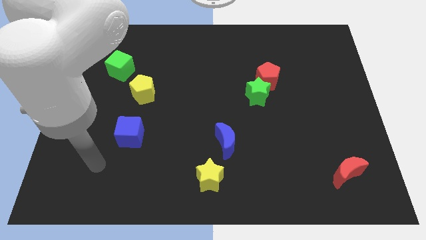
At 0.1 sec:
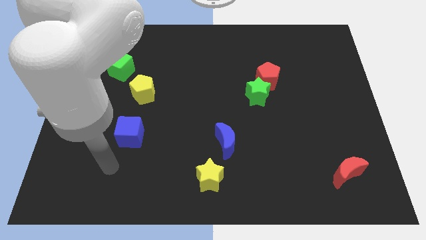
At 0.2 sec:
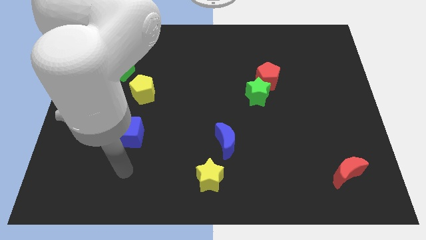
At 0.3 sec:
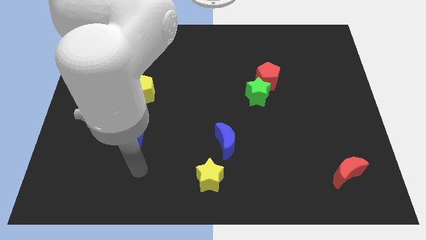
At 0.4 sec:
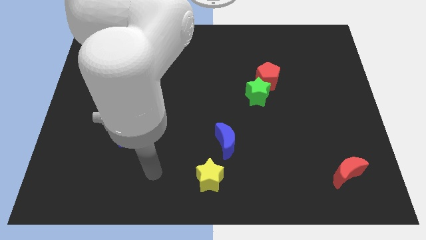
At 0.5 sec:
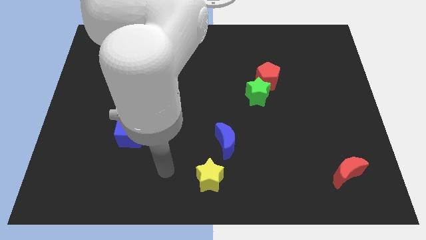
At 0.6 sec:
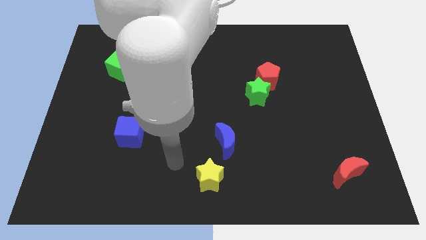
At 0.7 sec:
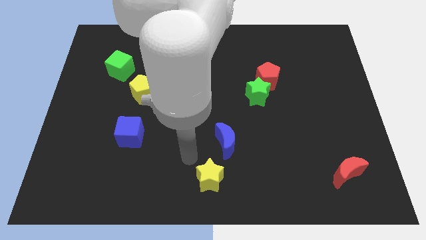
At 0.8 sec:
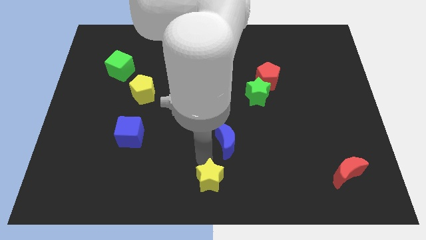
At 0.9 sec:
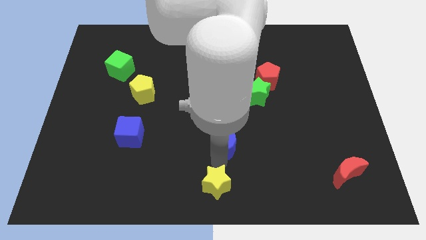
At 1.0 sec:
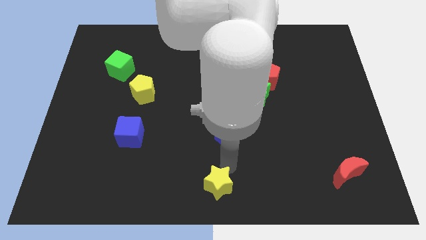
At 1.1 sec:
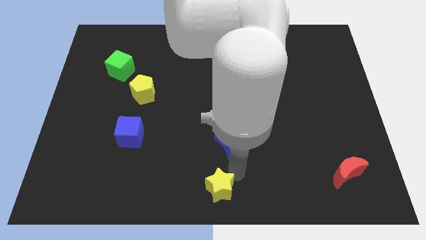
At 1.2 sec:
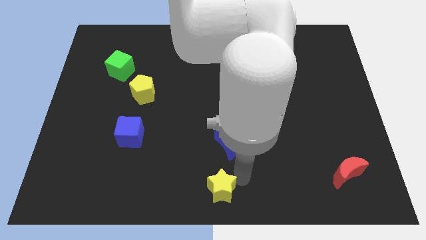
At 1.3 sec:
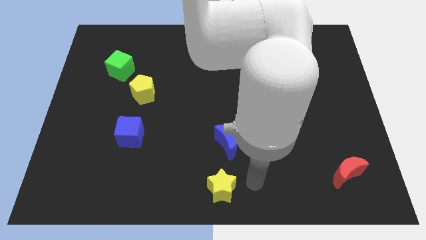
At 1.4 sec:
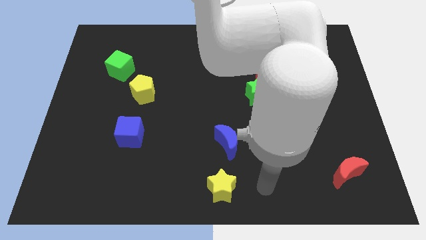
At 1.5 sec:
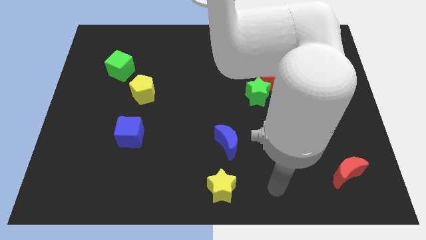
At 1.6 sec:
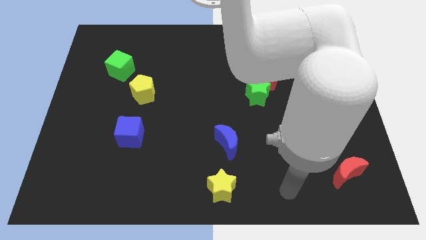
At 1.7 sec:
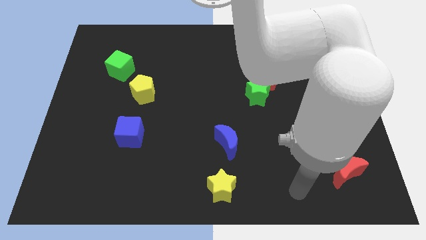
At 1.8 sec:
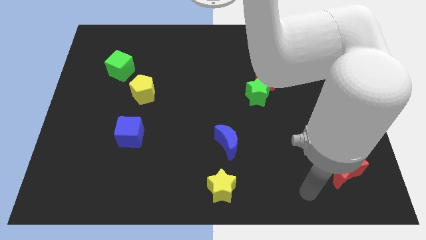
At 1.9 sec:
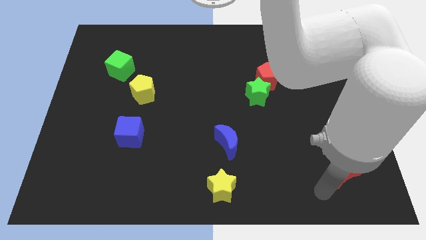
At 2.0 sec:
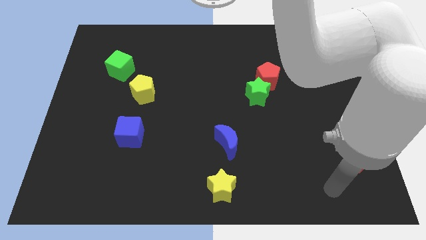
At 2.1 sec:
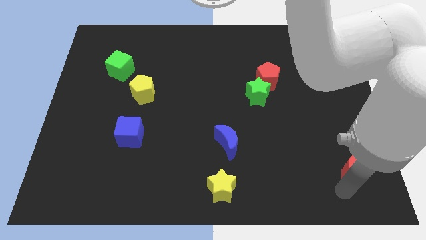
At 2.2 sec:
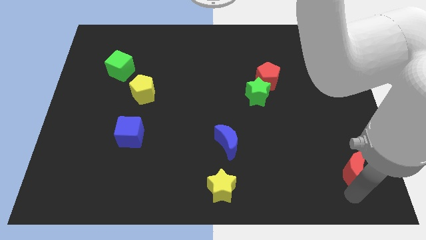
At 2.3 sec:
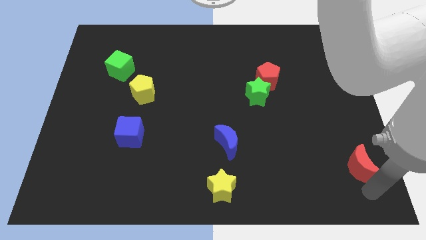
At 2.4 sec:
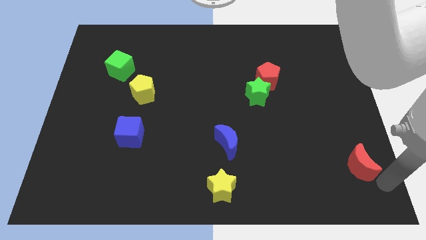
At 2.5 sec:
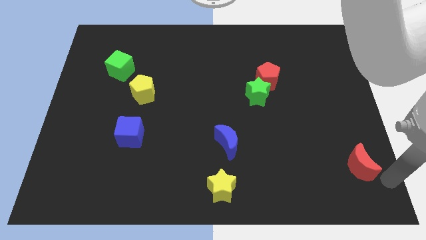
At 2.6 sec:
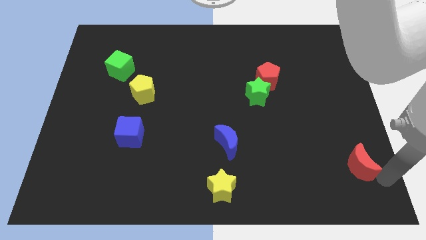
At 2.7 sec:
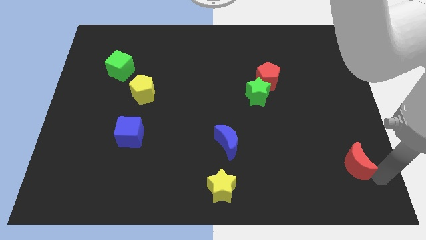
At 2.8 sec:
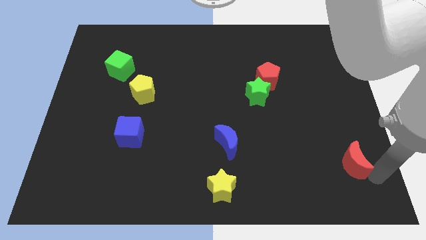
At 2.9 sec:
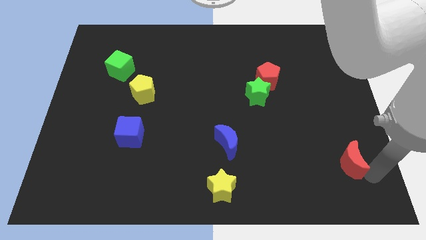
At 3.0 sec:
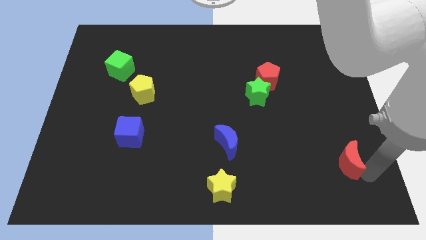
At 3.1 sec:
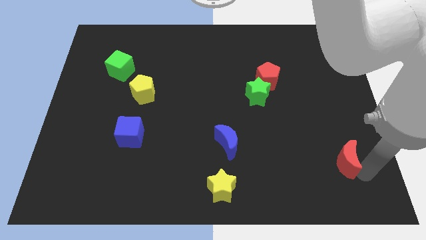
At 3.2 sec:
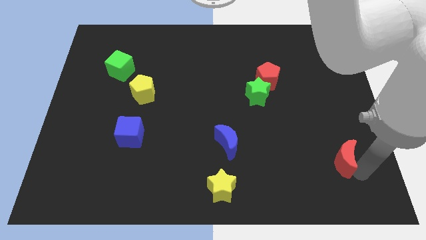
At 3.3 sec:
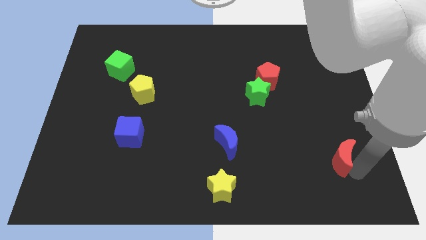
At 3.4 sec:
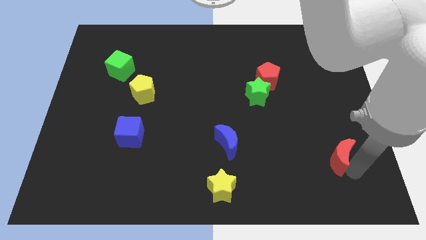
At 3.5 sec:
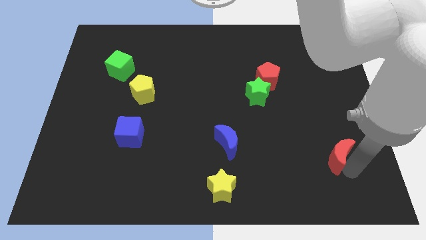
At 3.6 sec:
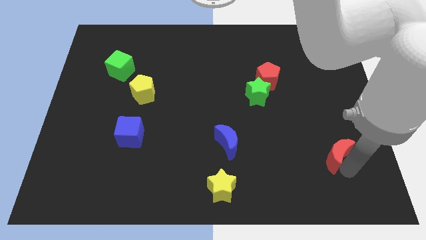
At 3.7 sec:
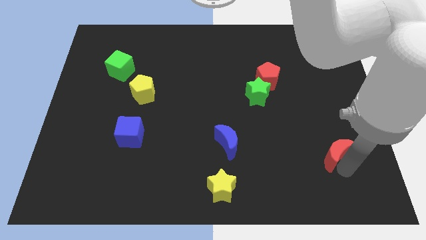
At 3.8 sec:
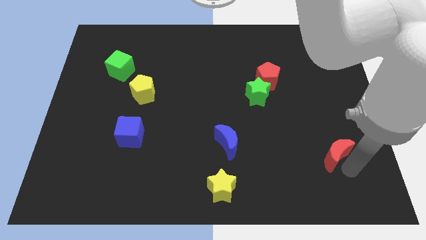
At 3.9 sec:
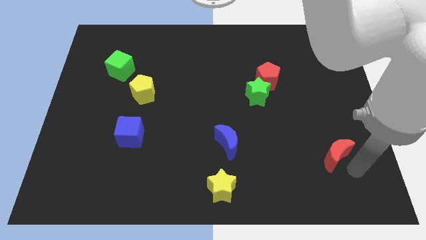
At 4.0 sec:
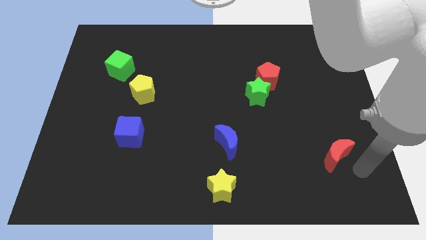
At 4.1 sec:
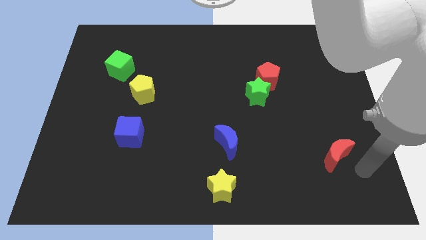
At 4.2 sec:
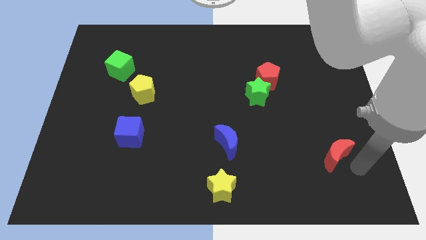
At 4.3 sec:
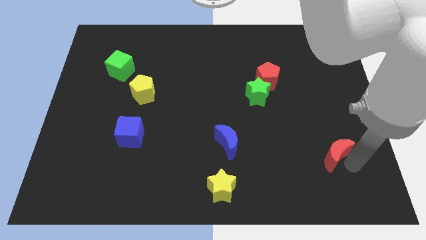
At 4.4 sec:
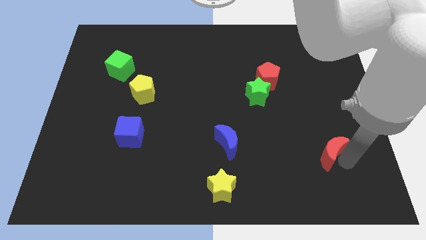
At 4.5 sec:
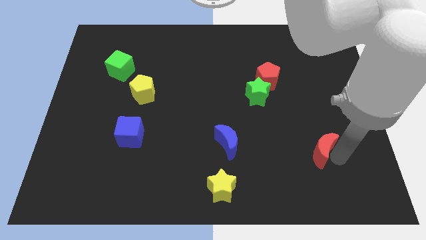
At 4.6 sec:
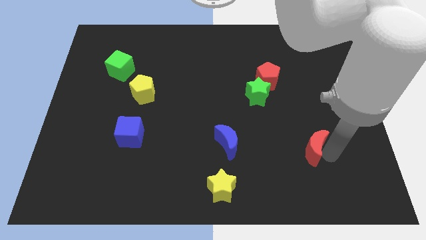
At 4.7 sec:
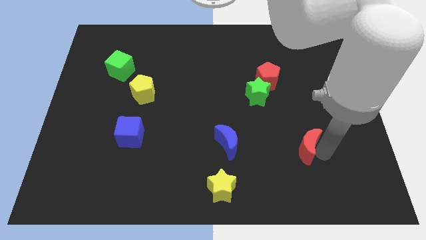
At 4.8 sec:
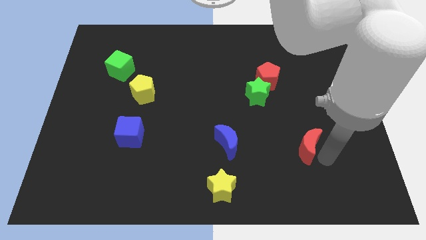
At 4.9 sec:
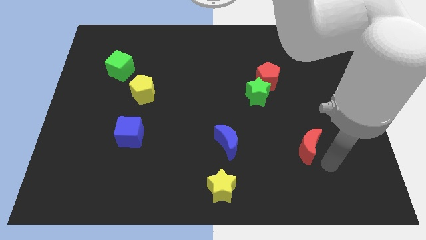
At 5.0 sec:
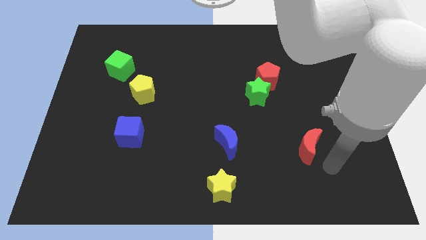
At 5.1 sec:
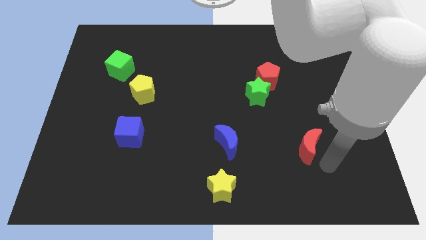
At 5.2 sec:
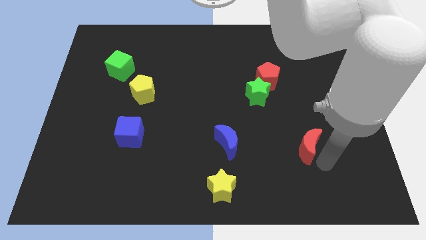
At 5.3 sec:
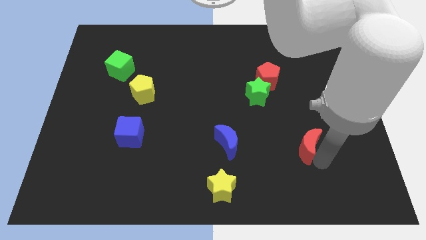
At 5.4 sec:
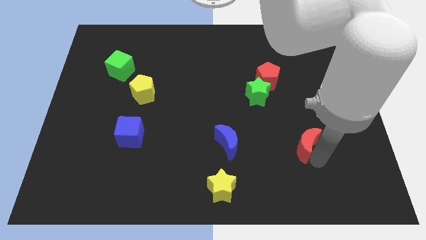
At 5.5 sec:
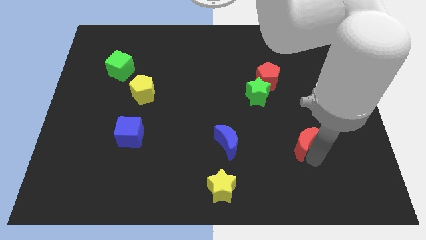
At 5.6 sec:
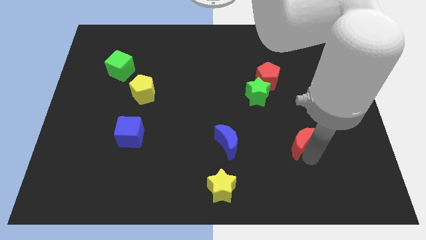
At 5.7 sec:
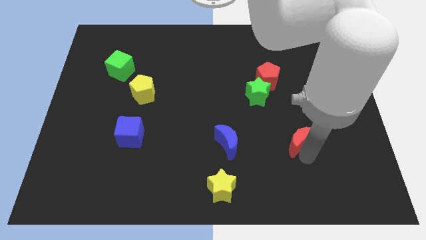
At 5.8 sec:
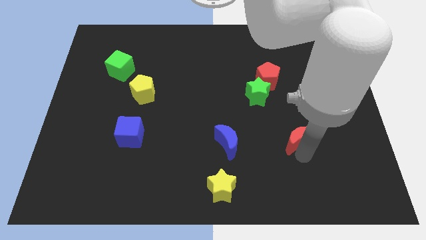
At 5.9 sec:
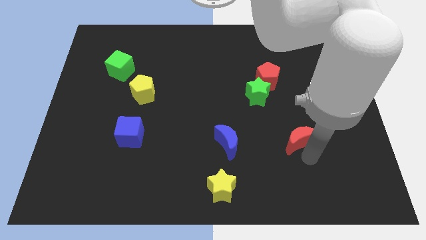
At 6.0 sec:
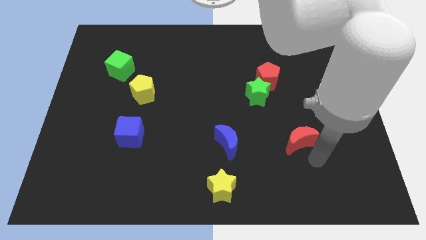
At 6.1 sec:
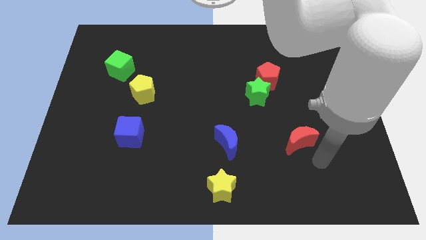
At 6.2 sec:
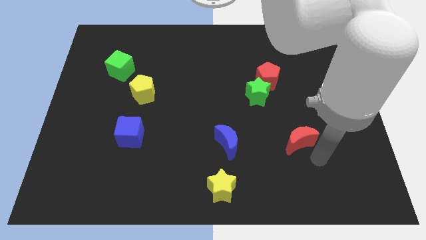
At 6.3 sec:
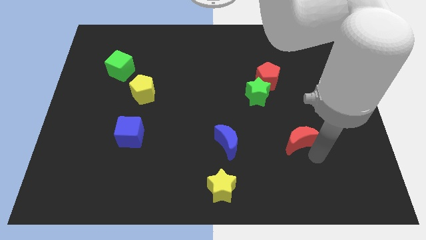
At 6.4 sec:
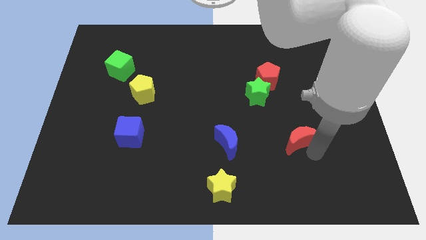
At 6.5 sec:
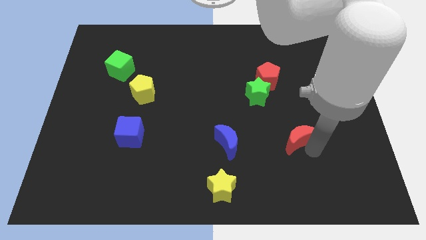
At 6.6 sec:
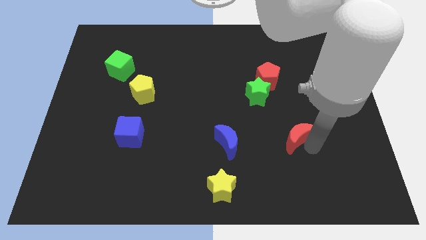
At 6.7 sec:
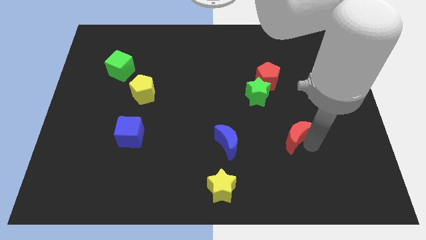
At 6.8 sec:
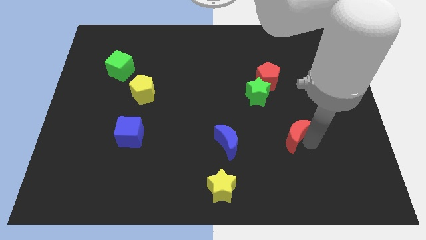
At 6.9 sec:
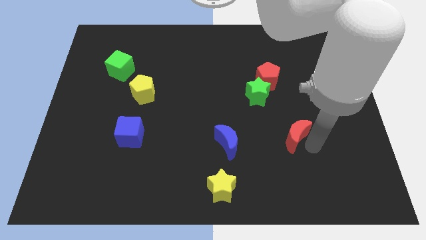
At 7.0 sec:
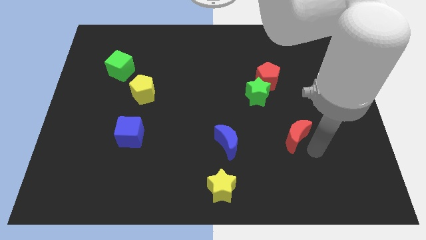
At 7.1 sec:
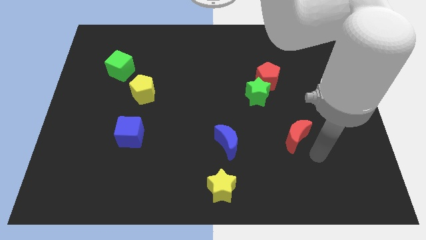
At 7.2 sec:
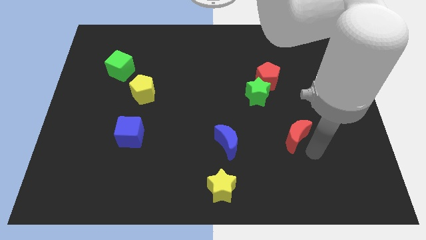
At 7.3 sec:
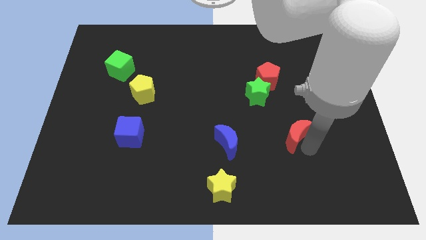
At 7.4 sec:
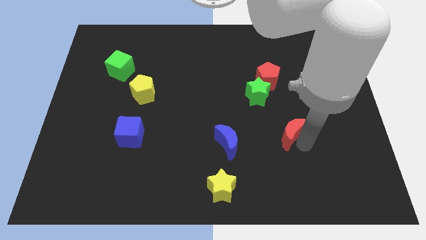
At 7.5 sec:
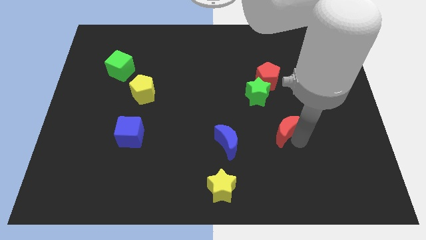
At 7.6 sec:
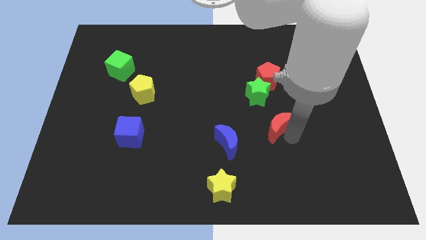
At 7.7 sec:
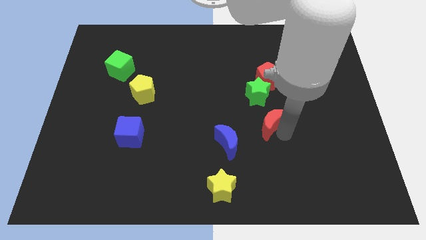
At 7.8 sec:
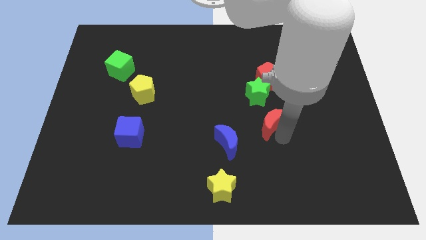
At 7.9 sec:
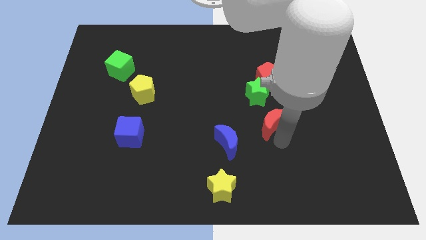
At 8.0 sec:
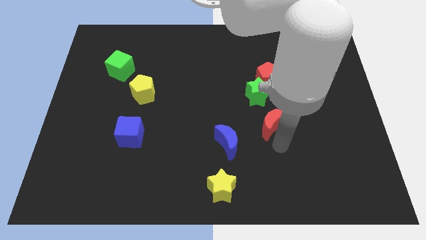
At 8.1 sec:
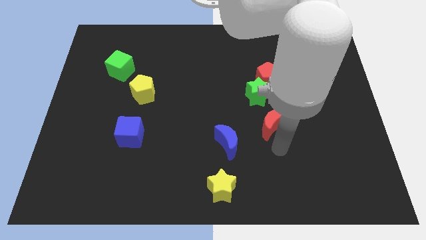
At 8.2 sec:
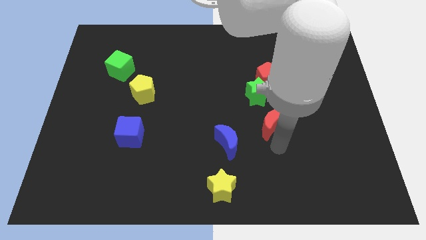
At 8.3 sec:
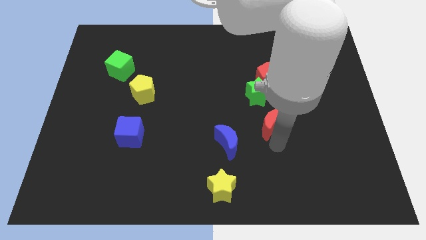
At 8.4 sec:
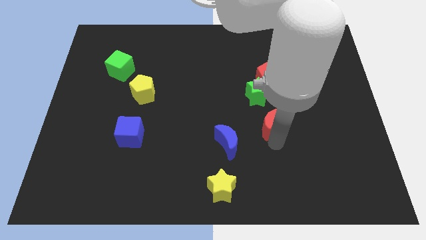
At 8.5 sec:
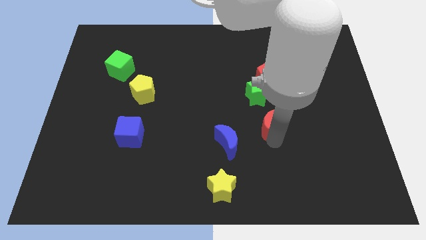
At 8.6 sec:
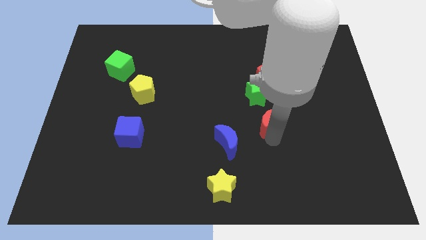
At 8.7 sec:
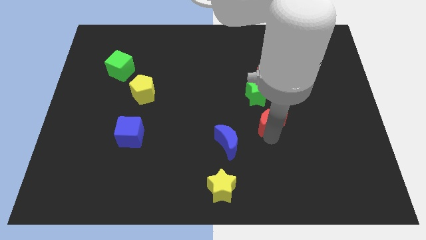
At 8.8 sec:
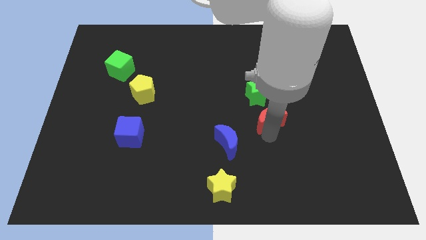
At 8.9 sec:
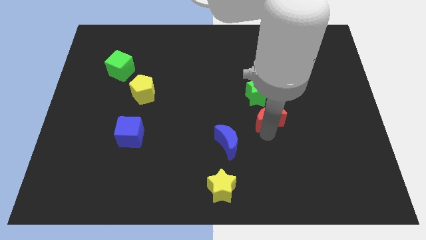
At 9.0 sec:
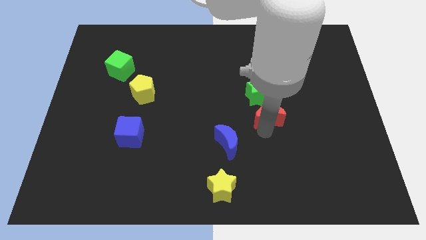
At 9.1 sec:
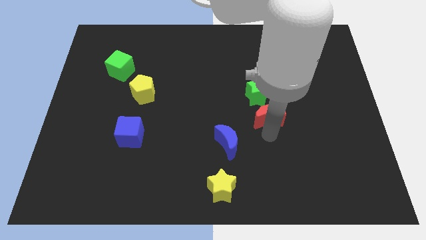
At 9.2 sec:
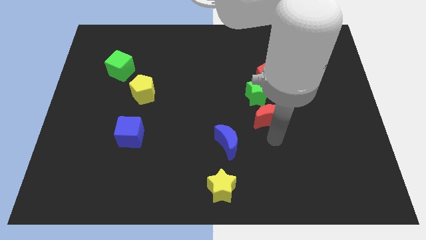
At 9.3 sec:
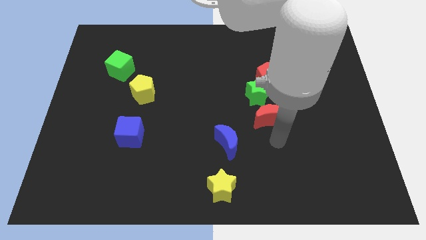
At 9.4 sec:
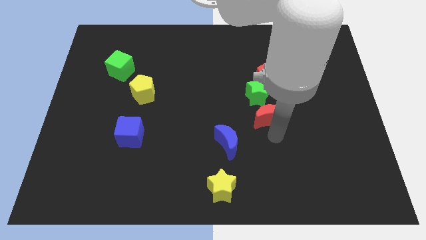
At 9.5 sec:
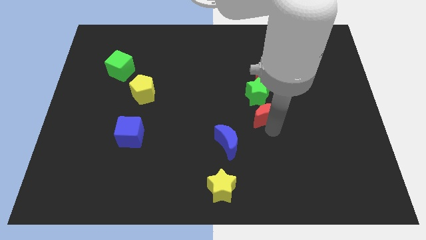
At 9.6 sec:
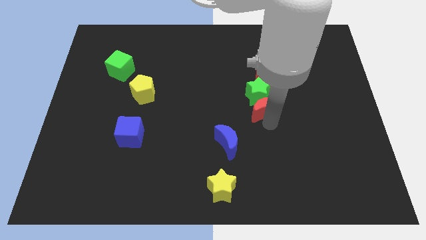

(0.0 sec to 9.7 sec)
push the red moon towards the green star
